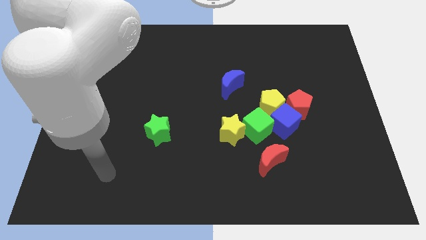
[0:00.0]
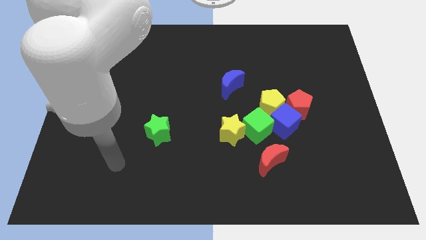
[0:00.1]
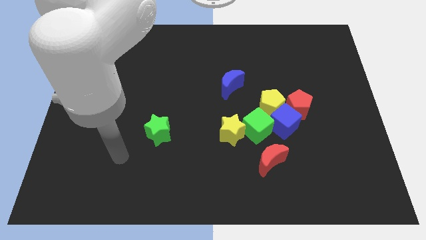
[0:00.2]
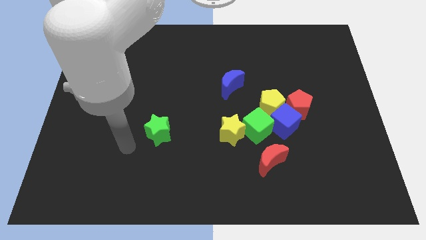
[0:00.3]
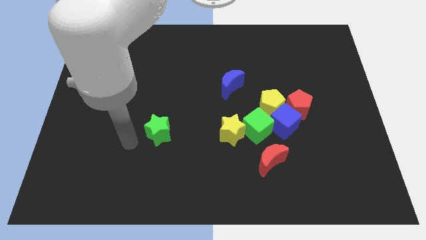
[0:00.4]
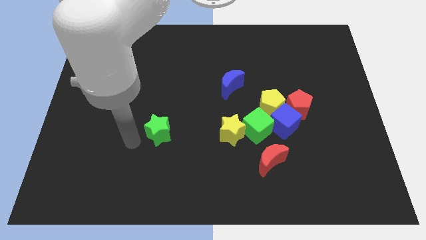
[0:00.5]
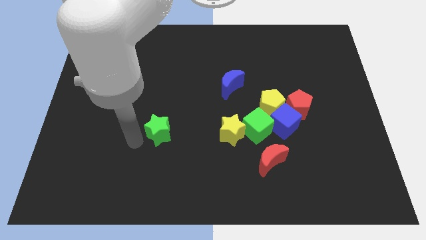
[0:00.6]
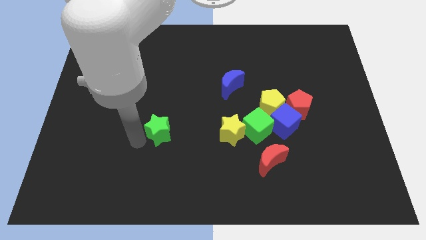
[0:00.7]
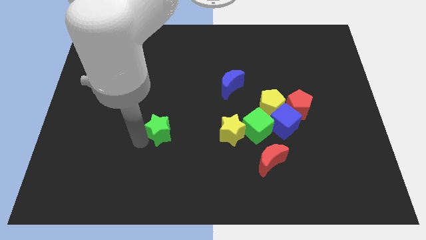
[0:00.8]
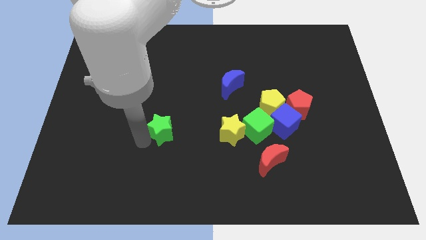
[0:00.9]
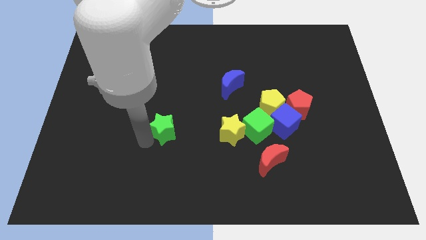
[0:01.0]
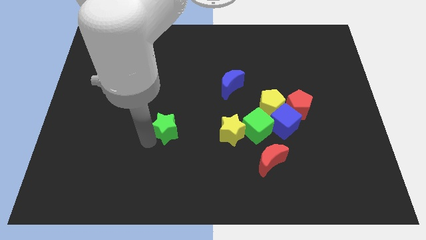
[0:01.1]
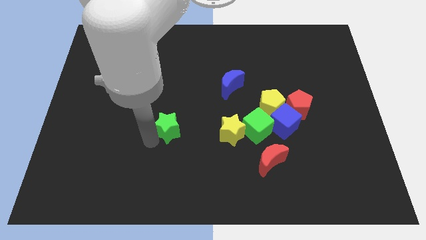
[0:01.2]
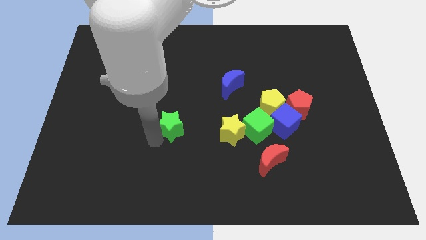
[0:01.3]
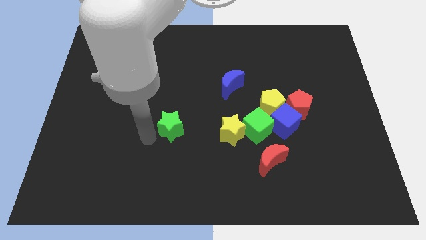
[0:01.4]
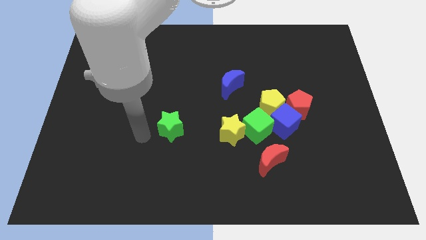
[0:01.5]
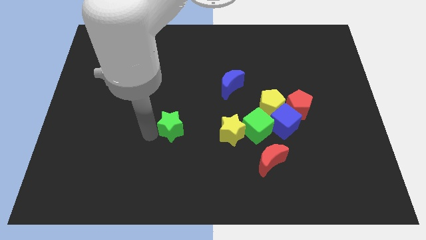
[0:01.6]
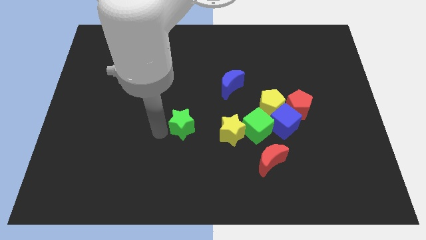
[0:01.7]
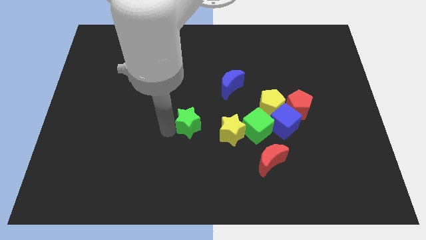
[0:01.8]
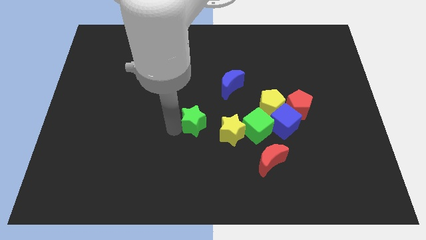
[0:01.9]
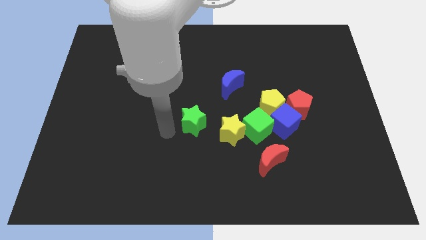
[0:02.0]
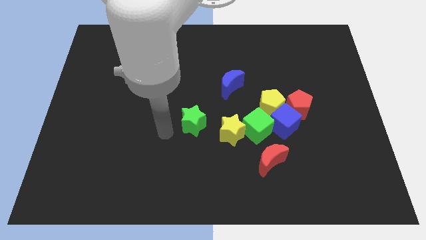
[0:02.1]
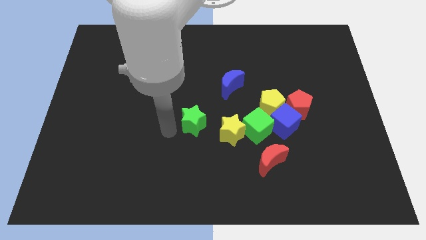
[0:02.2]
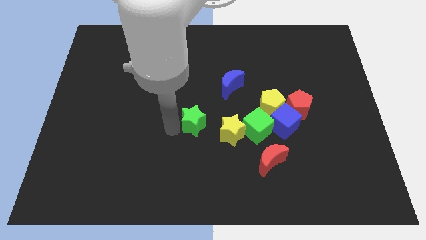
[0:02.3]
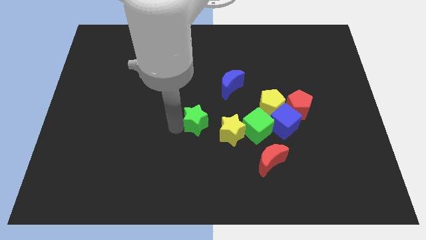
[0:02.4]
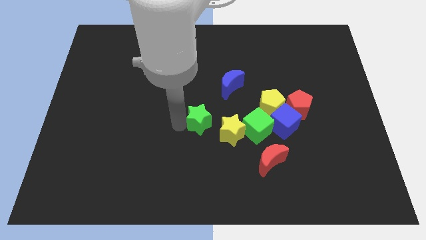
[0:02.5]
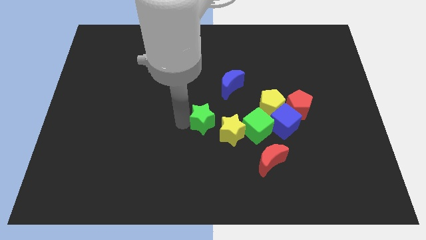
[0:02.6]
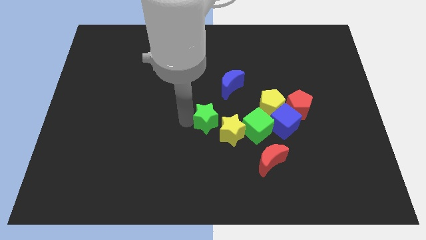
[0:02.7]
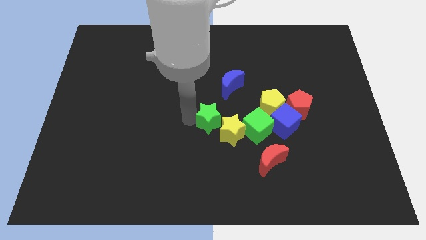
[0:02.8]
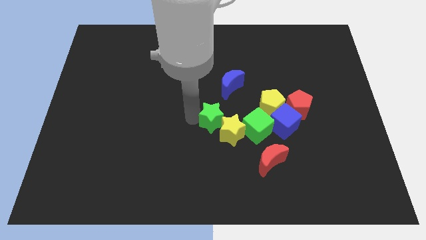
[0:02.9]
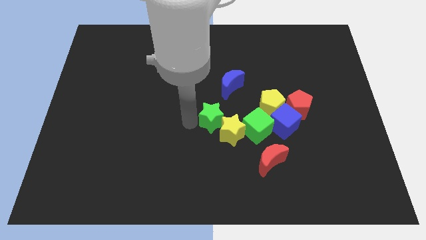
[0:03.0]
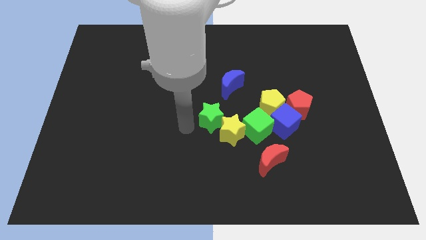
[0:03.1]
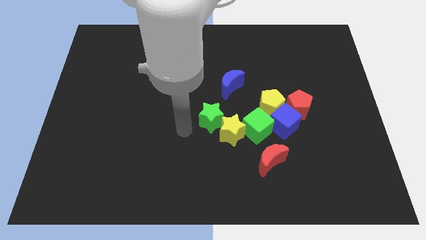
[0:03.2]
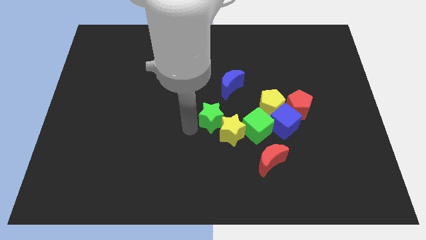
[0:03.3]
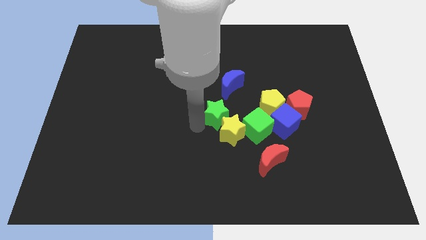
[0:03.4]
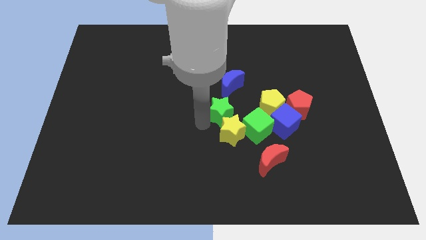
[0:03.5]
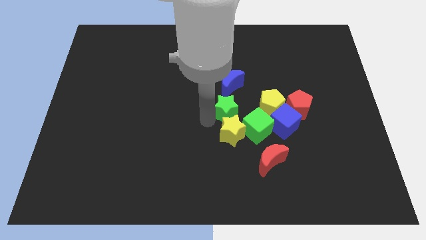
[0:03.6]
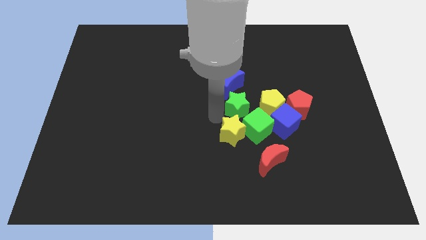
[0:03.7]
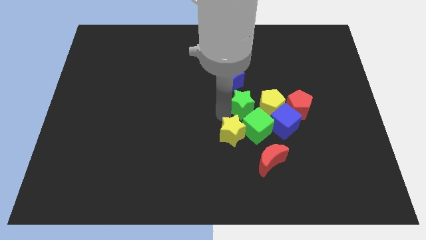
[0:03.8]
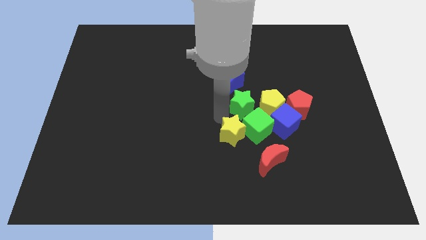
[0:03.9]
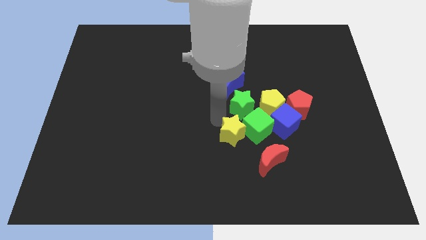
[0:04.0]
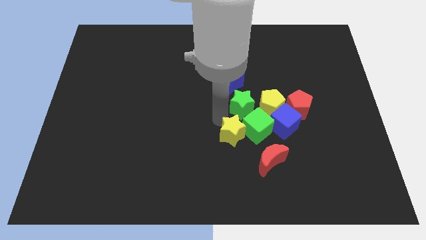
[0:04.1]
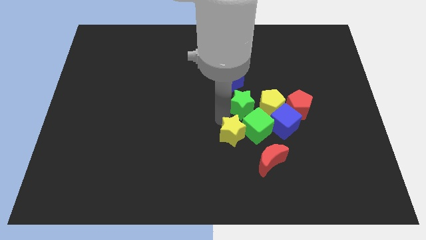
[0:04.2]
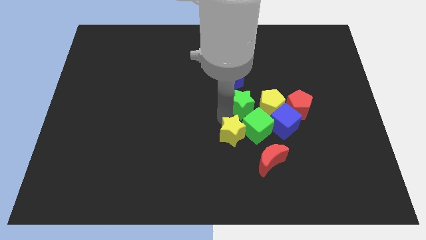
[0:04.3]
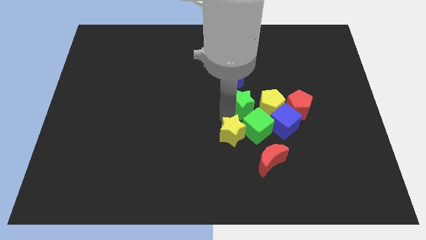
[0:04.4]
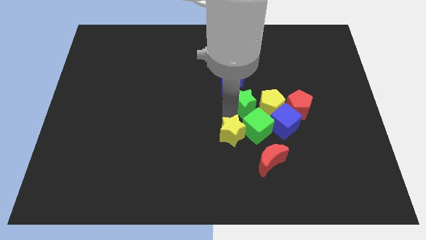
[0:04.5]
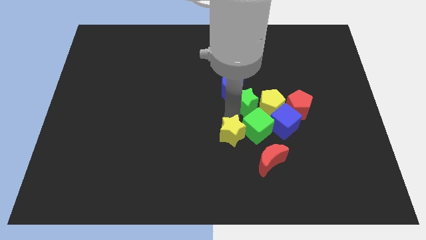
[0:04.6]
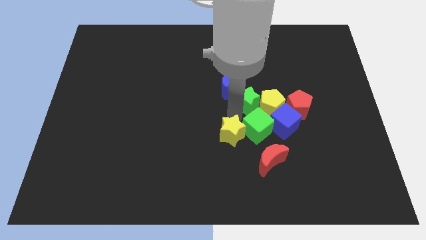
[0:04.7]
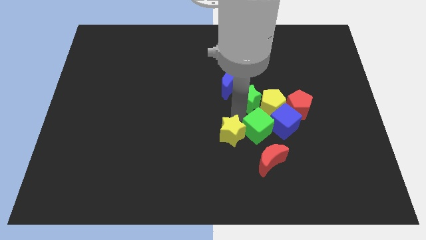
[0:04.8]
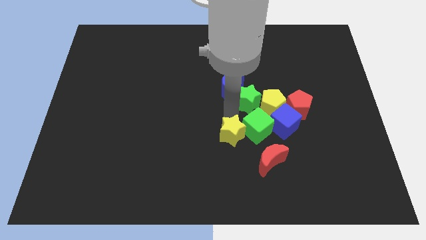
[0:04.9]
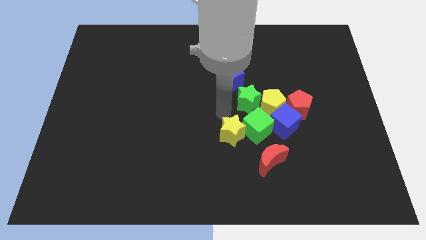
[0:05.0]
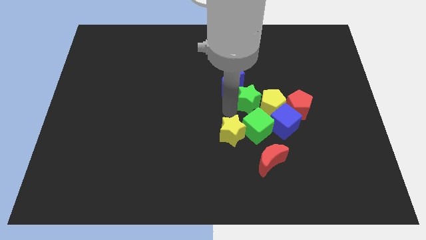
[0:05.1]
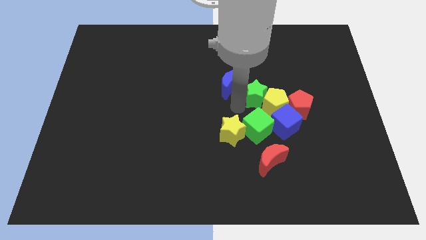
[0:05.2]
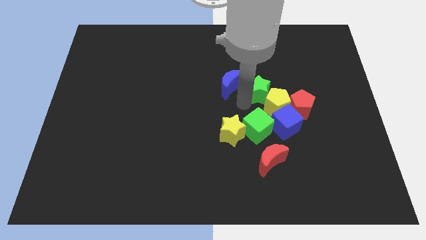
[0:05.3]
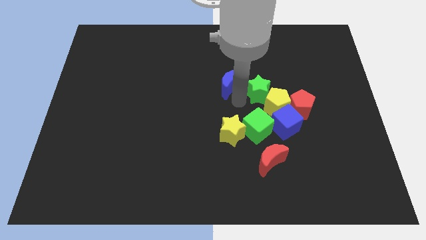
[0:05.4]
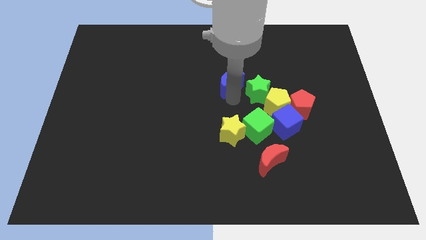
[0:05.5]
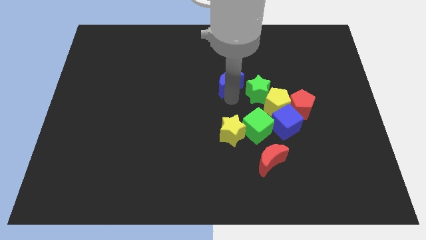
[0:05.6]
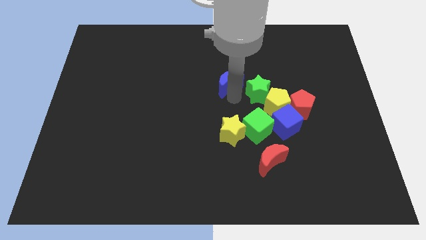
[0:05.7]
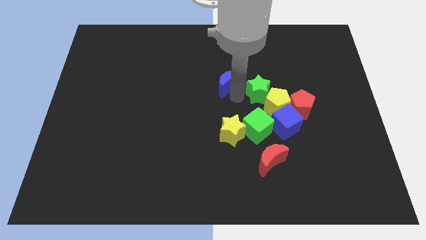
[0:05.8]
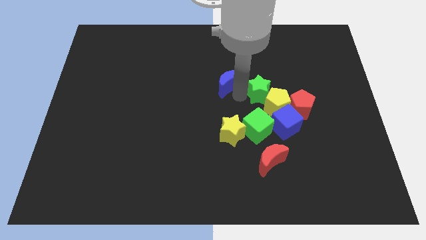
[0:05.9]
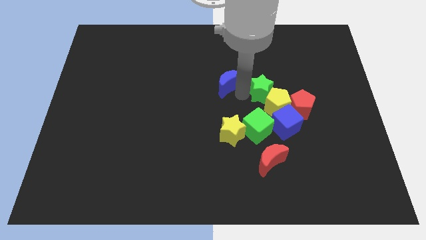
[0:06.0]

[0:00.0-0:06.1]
push the green star above the blue cube

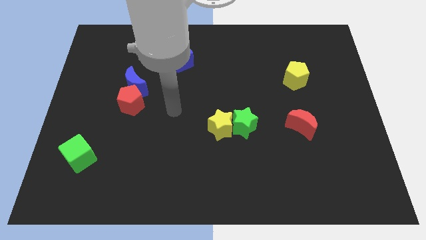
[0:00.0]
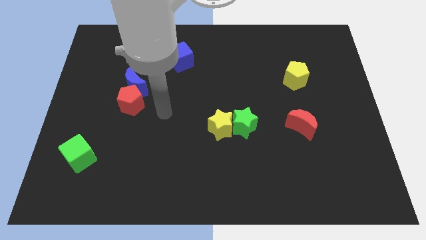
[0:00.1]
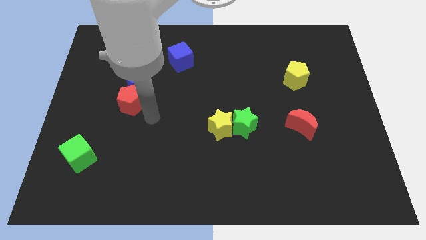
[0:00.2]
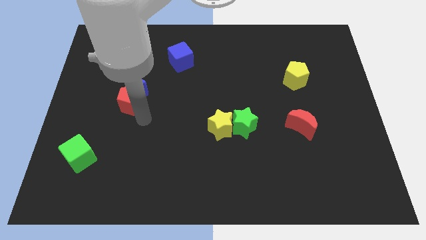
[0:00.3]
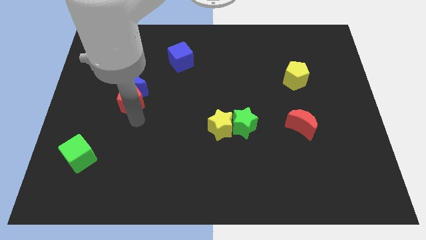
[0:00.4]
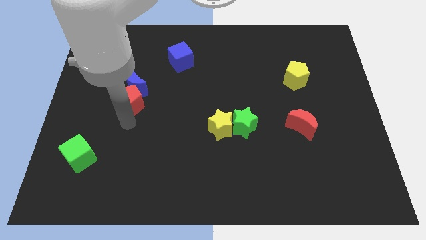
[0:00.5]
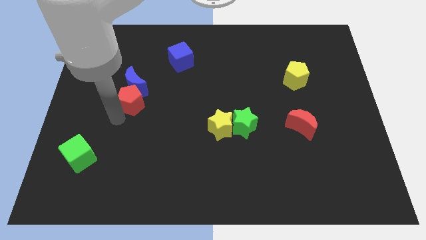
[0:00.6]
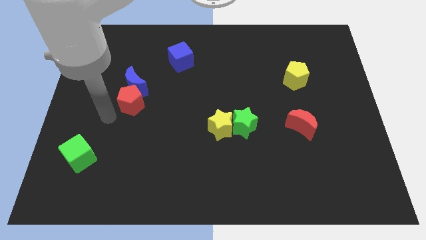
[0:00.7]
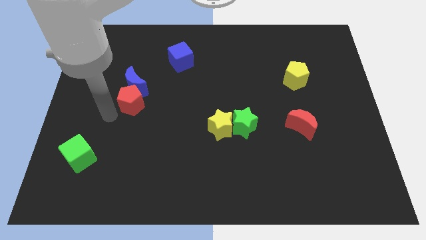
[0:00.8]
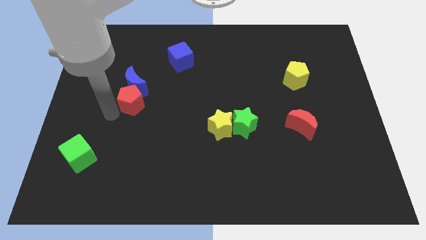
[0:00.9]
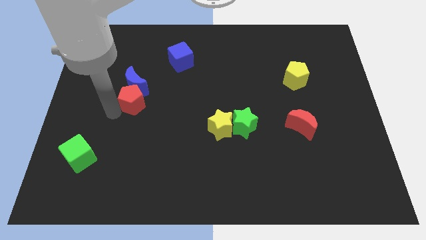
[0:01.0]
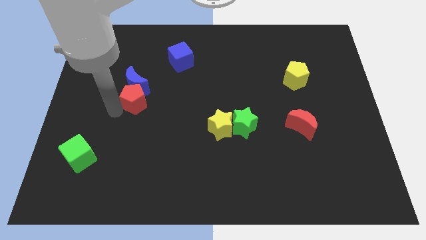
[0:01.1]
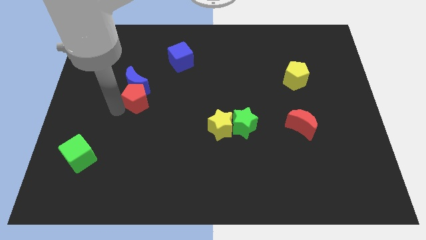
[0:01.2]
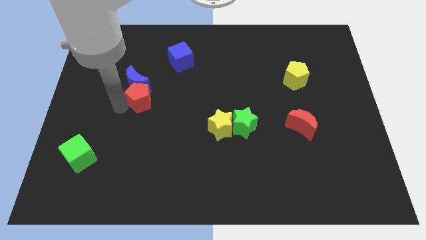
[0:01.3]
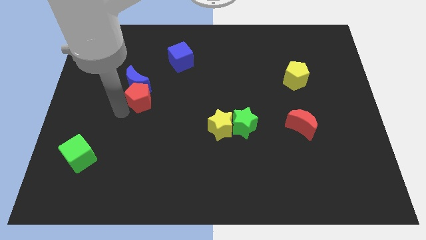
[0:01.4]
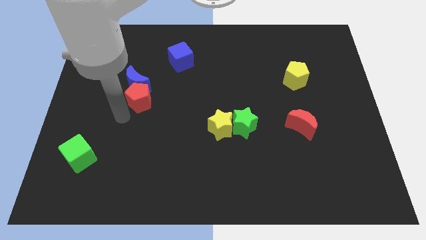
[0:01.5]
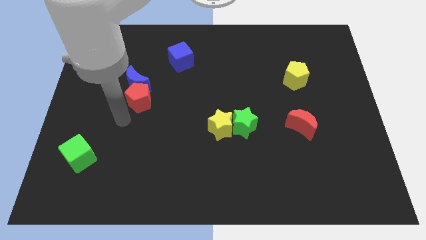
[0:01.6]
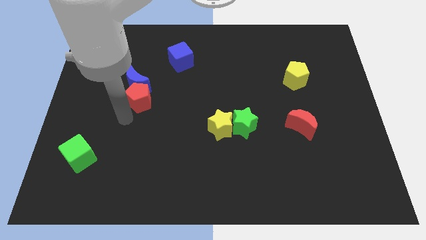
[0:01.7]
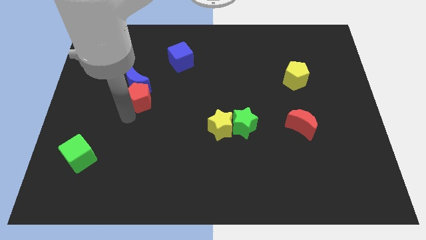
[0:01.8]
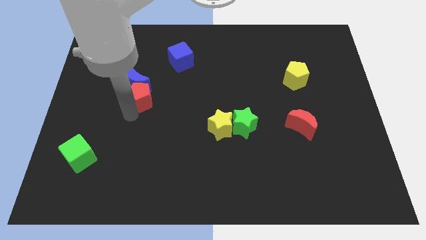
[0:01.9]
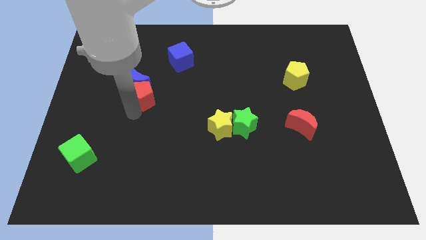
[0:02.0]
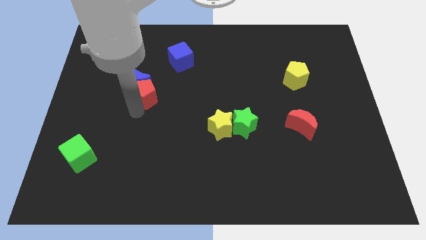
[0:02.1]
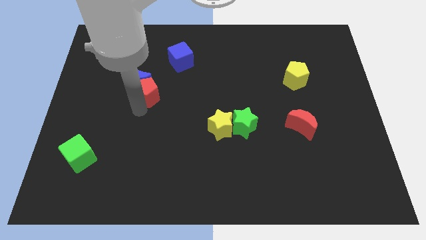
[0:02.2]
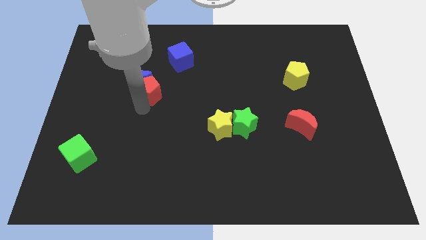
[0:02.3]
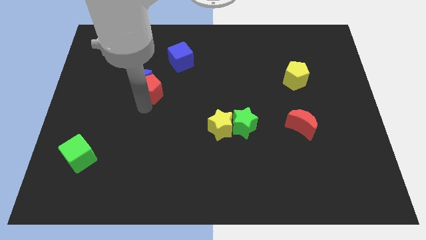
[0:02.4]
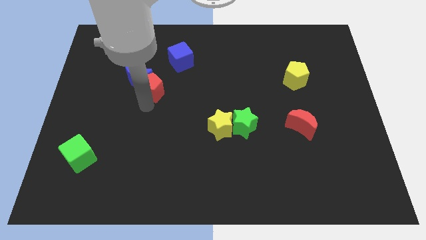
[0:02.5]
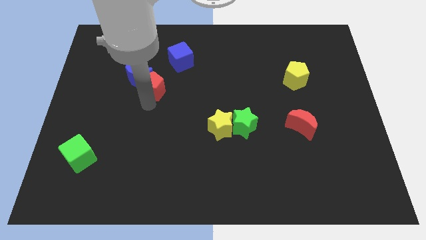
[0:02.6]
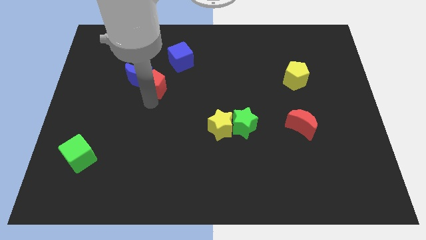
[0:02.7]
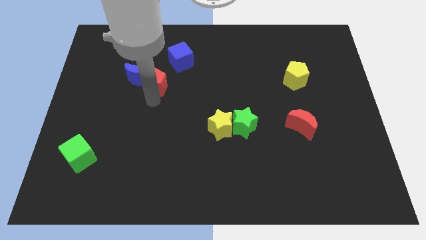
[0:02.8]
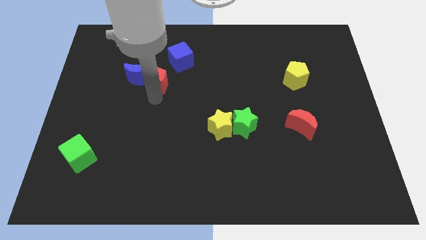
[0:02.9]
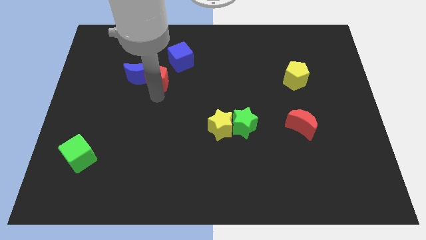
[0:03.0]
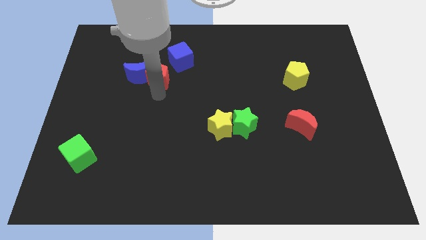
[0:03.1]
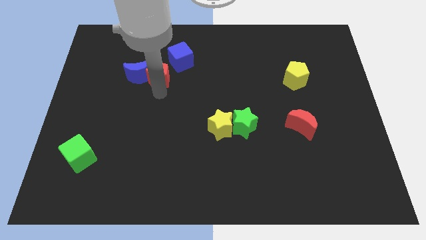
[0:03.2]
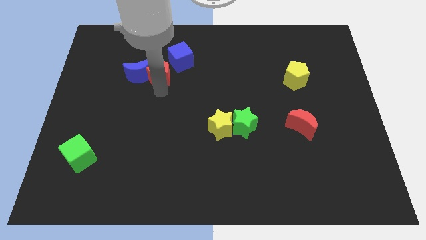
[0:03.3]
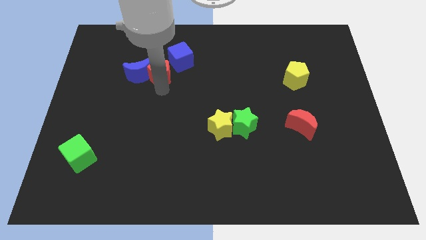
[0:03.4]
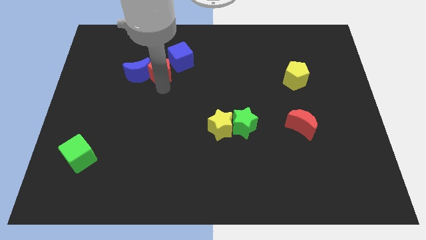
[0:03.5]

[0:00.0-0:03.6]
put the red pentagon to the left side of the blue cube
